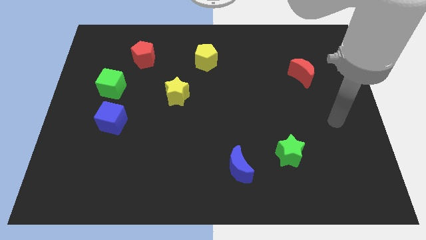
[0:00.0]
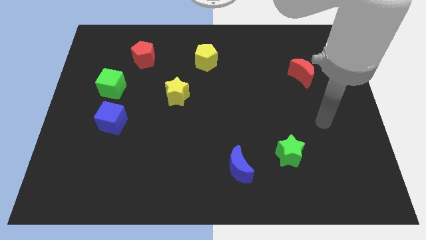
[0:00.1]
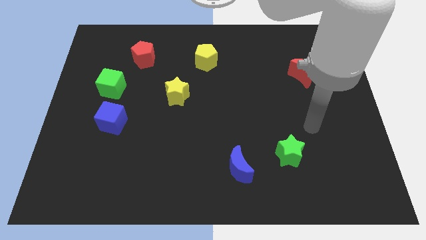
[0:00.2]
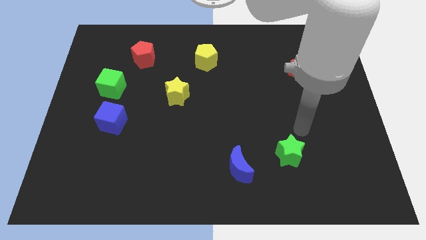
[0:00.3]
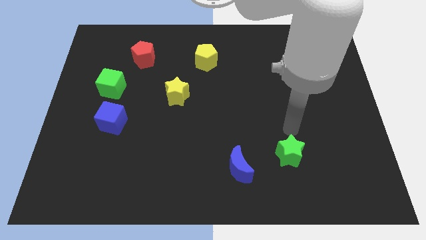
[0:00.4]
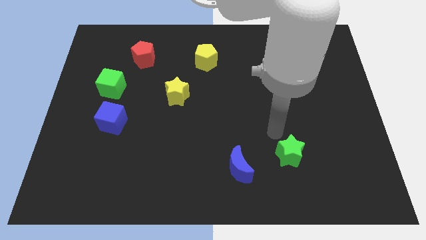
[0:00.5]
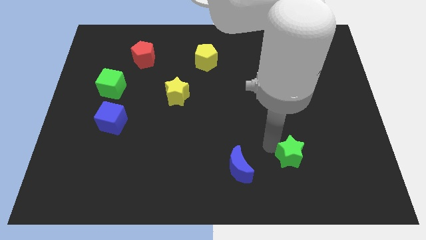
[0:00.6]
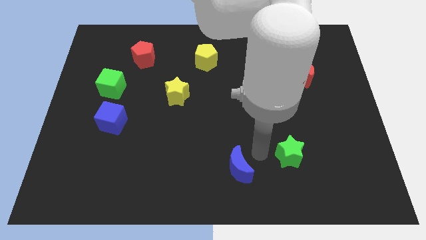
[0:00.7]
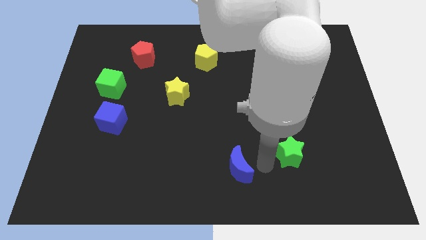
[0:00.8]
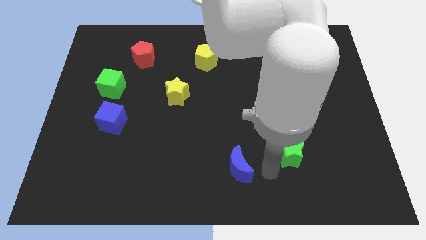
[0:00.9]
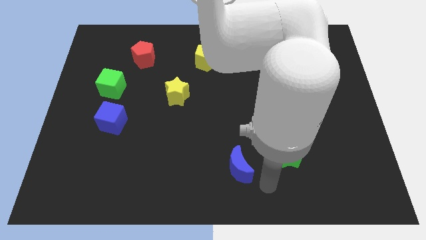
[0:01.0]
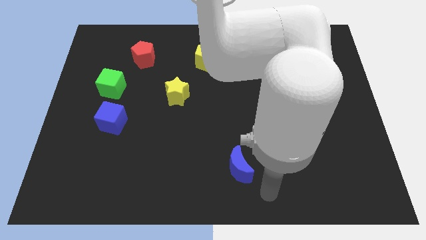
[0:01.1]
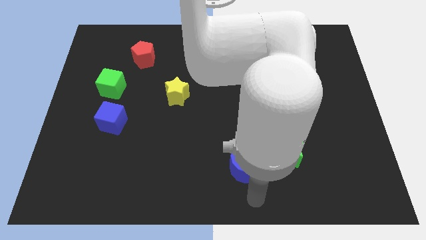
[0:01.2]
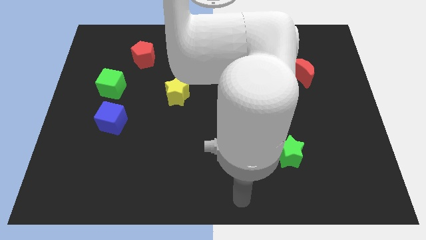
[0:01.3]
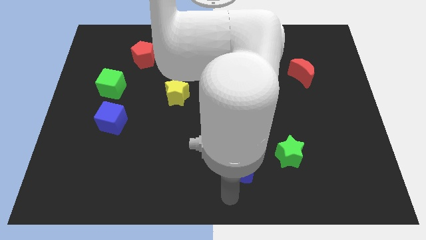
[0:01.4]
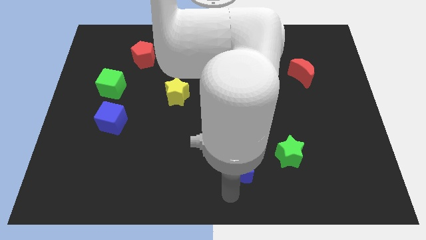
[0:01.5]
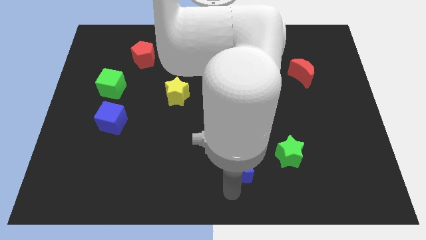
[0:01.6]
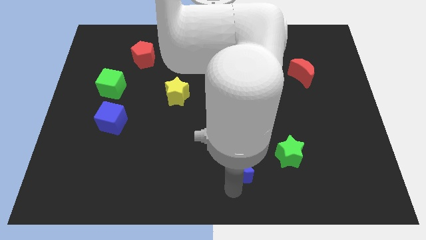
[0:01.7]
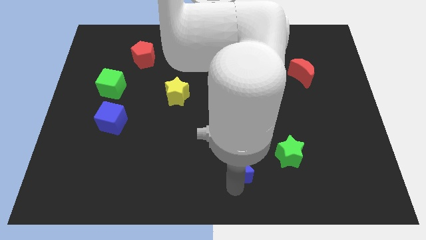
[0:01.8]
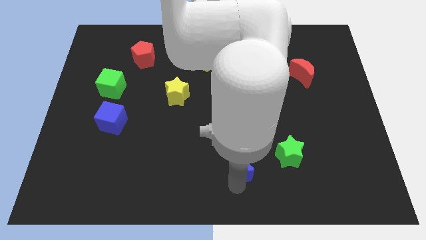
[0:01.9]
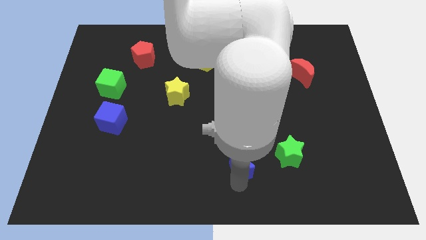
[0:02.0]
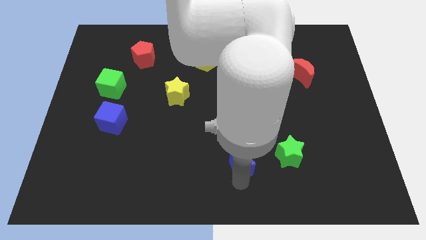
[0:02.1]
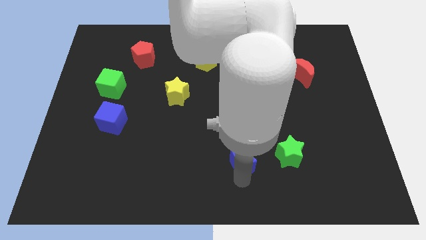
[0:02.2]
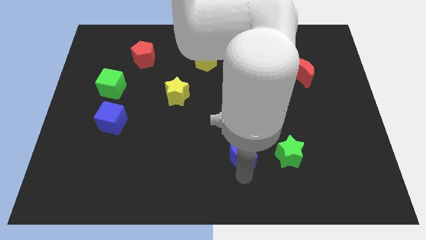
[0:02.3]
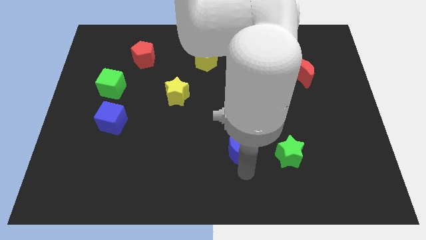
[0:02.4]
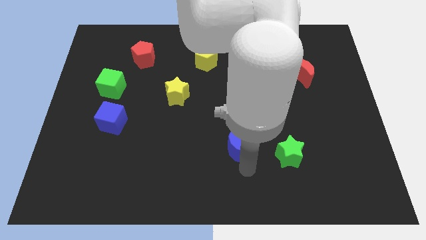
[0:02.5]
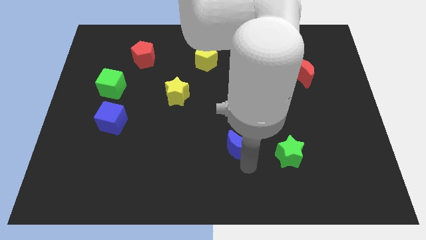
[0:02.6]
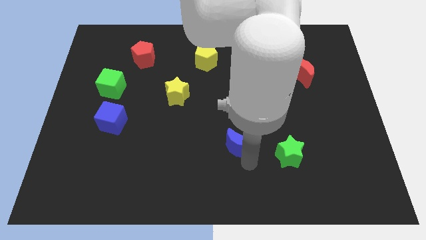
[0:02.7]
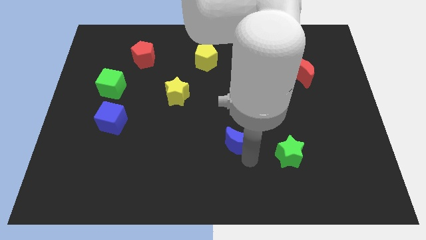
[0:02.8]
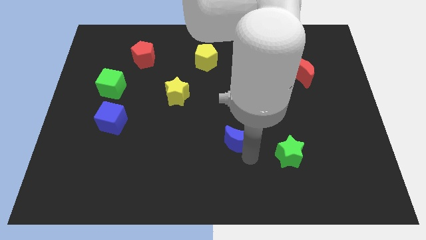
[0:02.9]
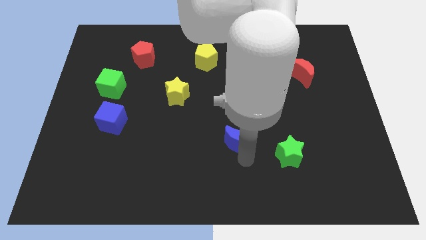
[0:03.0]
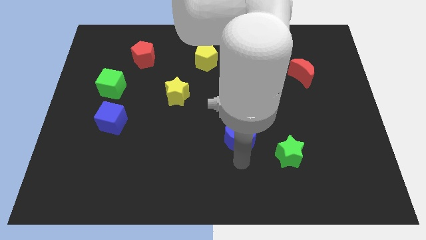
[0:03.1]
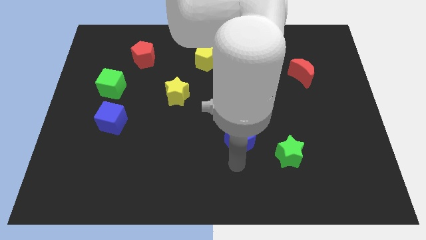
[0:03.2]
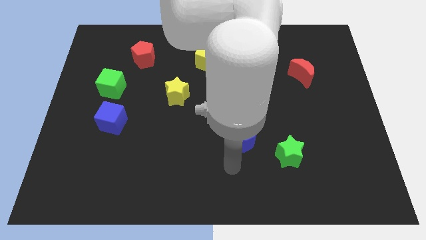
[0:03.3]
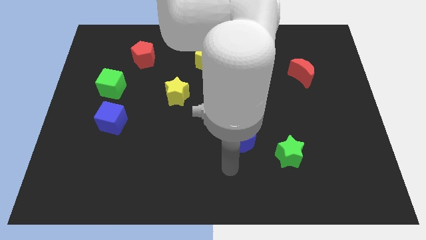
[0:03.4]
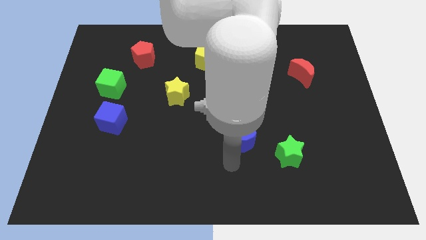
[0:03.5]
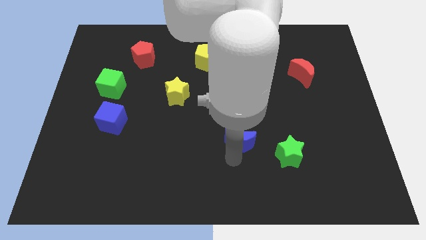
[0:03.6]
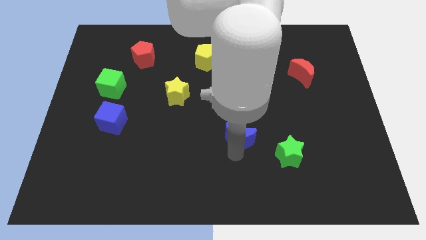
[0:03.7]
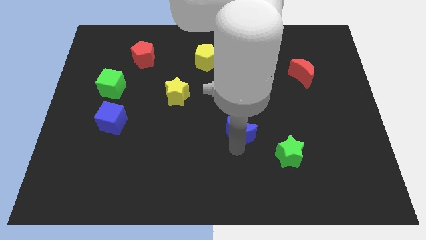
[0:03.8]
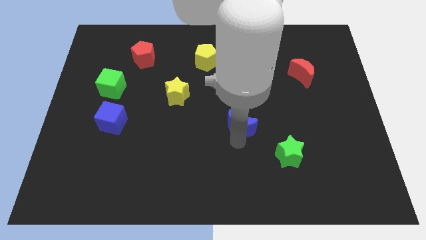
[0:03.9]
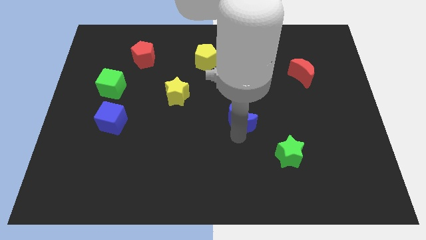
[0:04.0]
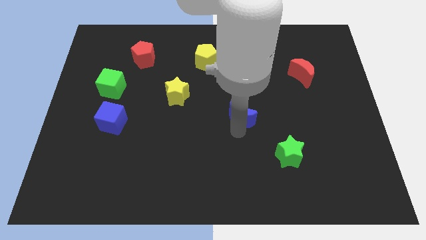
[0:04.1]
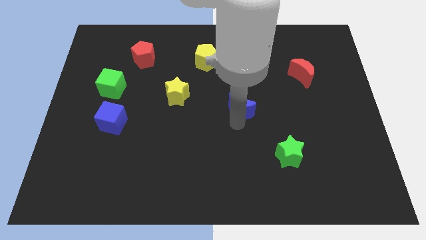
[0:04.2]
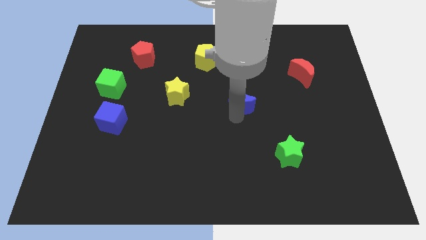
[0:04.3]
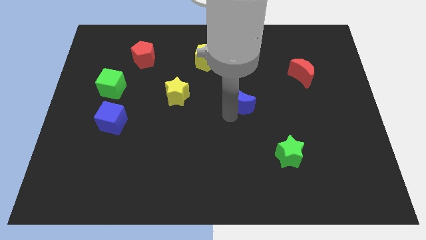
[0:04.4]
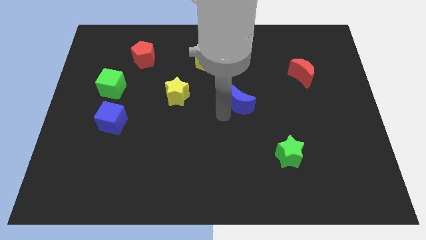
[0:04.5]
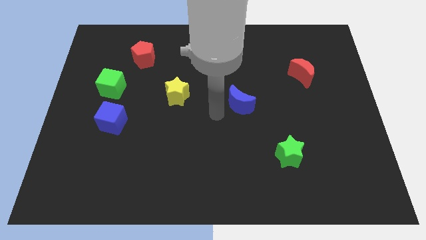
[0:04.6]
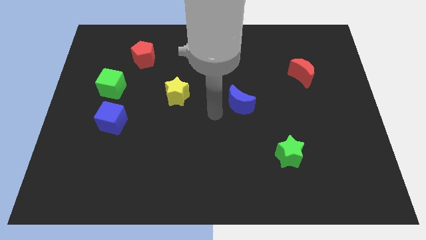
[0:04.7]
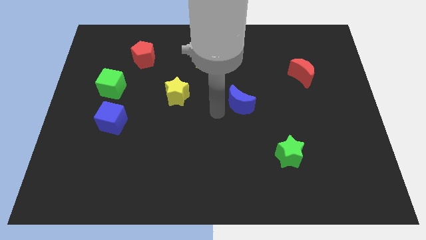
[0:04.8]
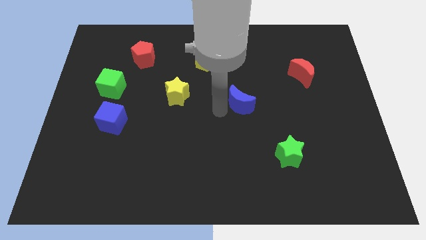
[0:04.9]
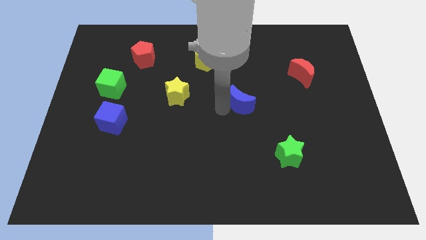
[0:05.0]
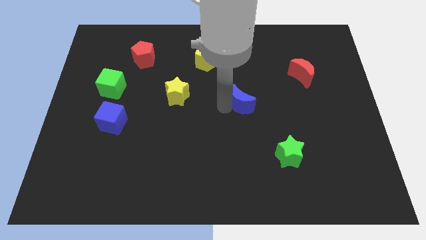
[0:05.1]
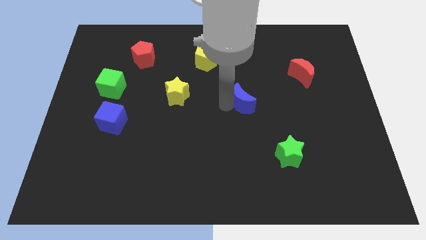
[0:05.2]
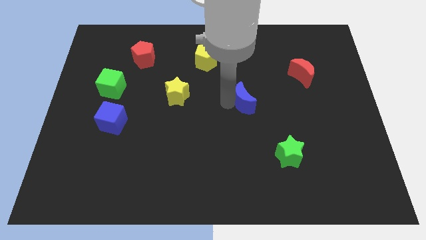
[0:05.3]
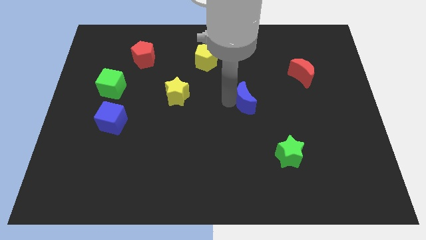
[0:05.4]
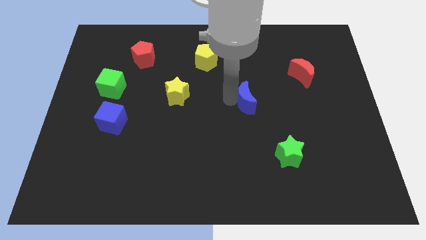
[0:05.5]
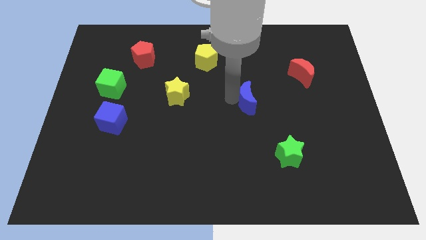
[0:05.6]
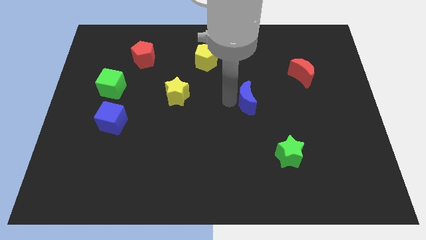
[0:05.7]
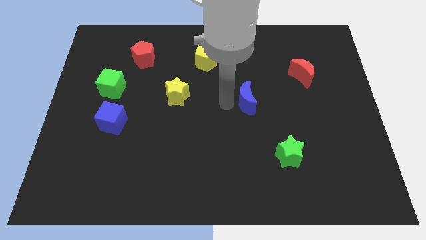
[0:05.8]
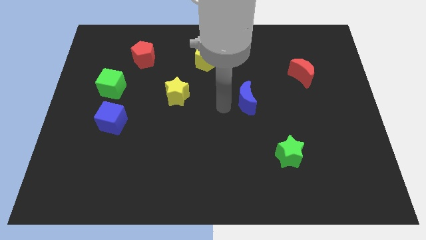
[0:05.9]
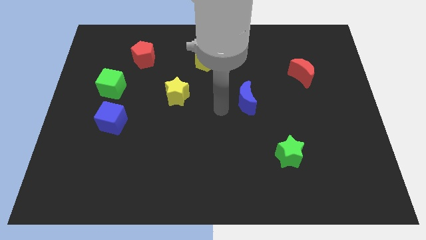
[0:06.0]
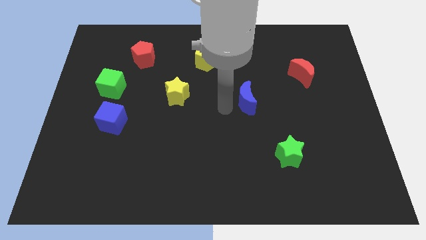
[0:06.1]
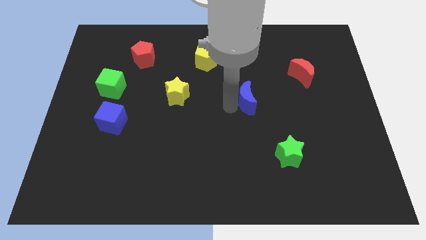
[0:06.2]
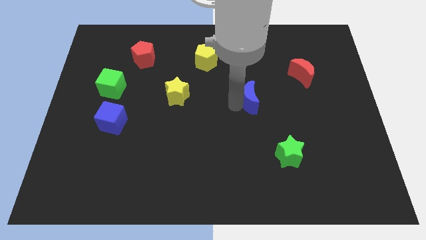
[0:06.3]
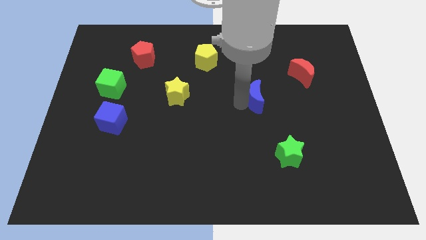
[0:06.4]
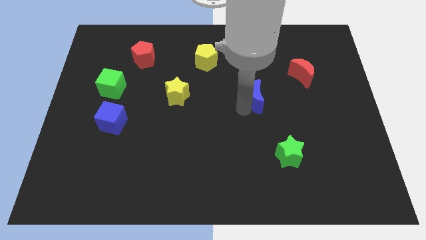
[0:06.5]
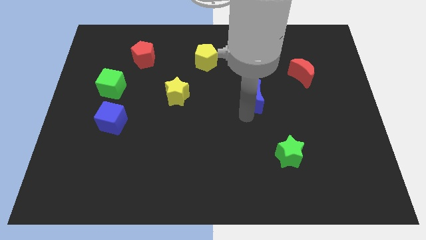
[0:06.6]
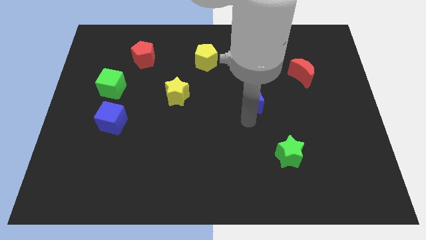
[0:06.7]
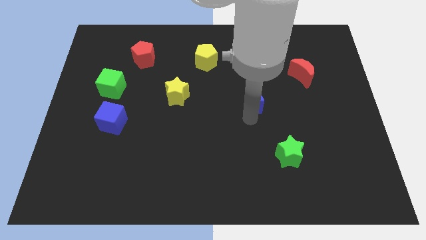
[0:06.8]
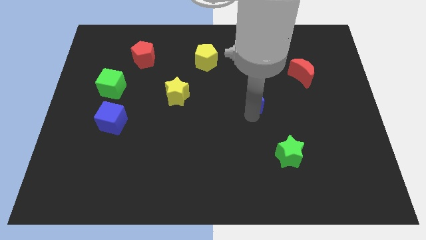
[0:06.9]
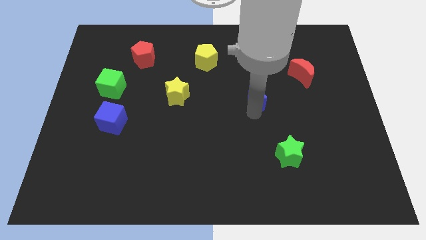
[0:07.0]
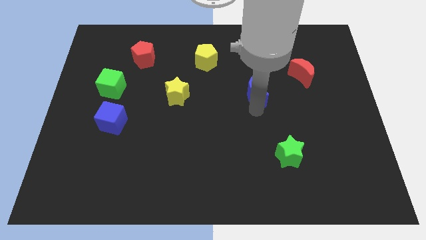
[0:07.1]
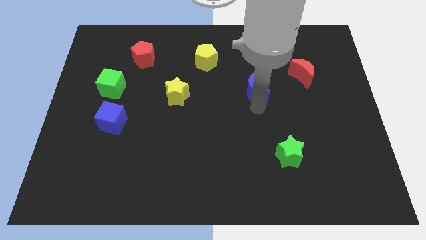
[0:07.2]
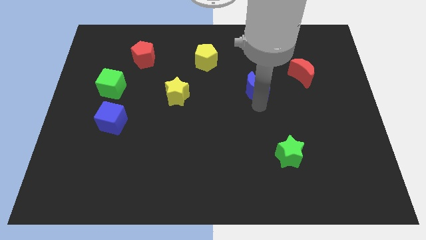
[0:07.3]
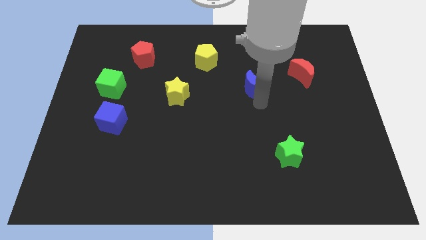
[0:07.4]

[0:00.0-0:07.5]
slide the blue moon left of the red moon

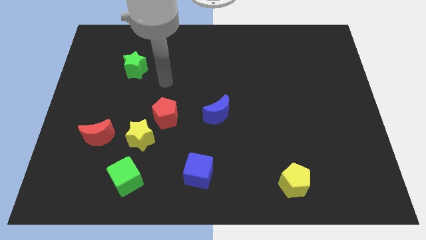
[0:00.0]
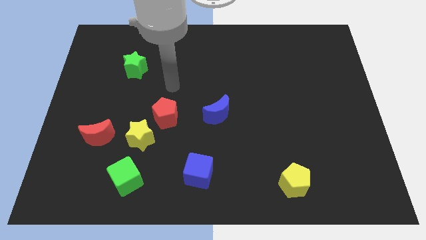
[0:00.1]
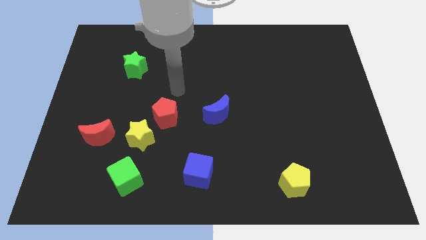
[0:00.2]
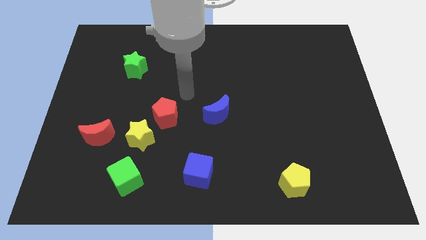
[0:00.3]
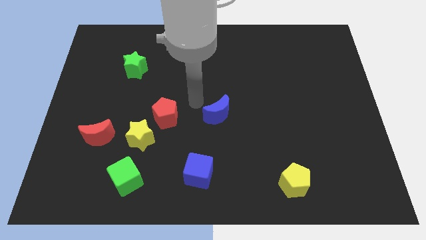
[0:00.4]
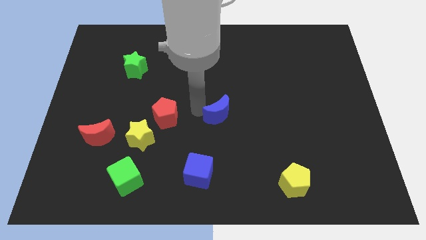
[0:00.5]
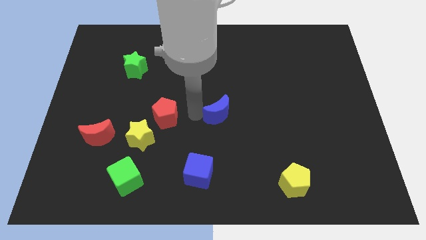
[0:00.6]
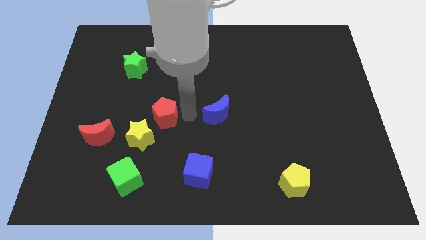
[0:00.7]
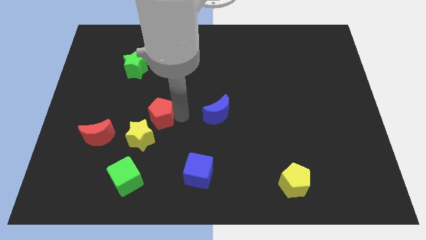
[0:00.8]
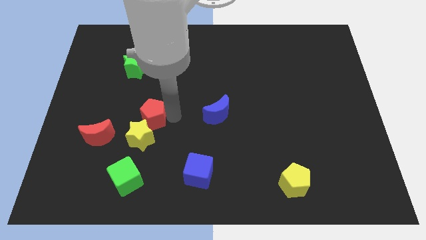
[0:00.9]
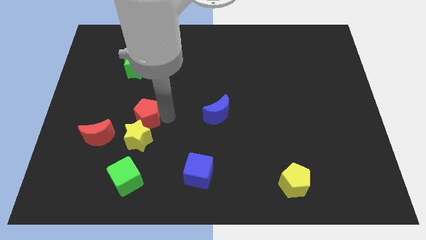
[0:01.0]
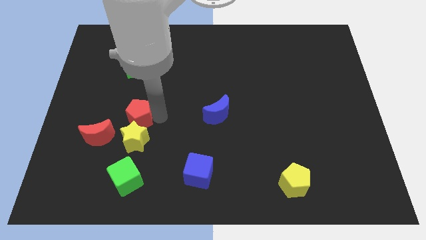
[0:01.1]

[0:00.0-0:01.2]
slide the red pentagon to the top left side of the yellow star
